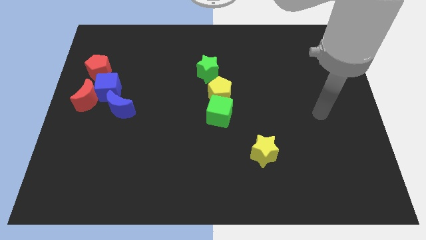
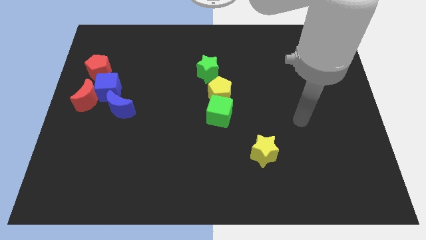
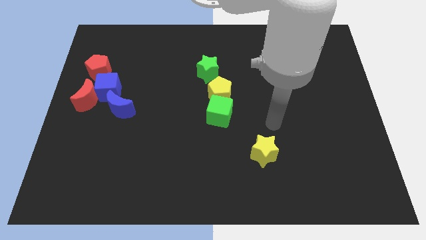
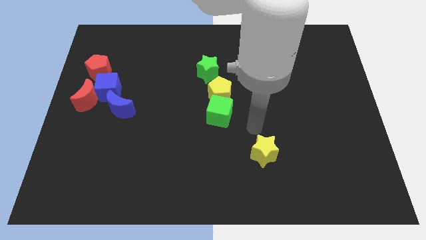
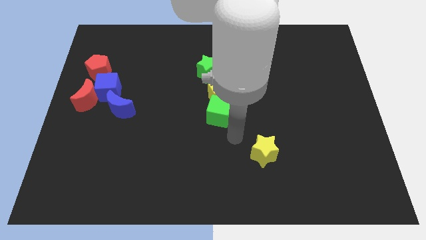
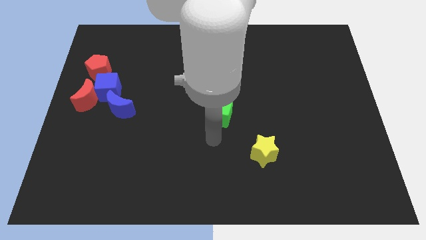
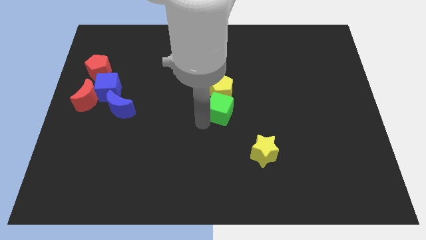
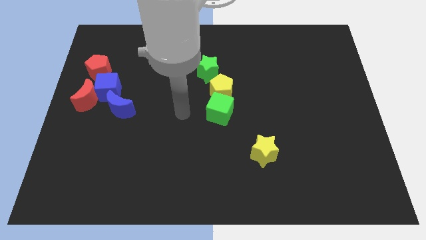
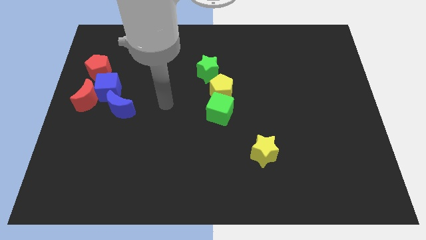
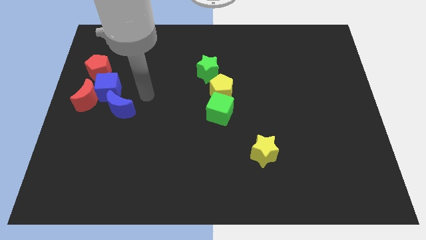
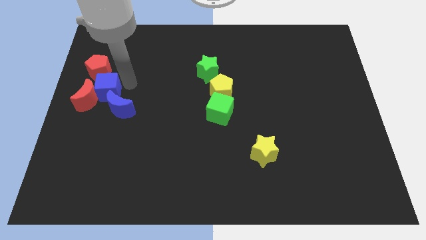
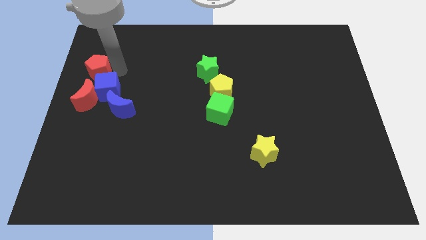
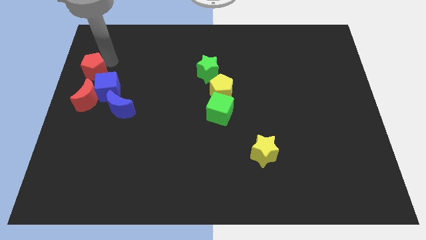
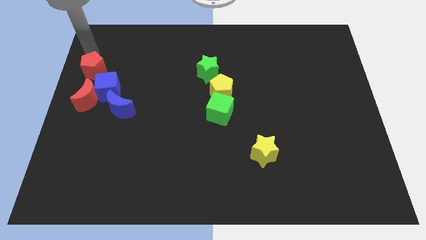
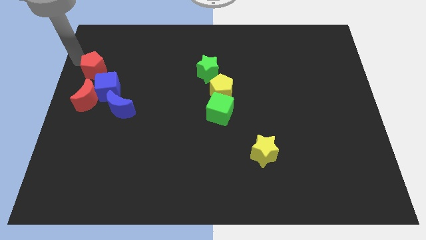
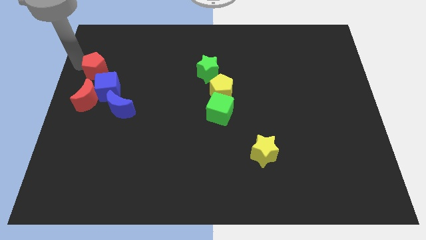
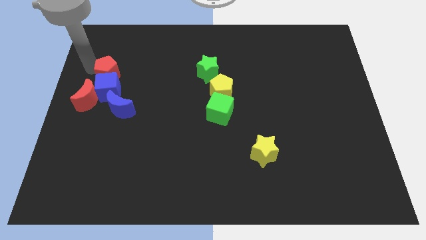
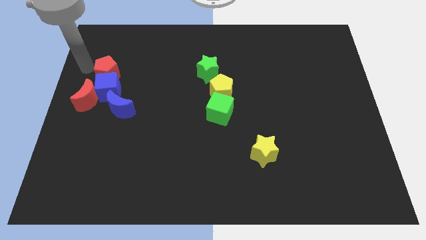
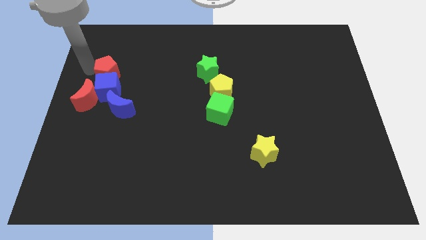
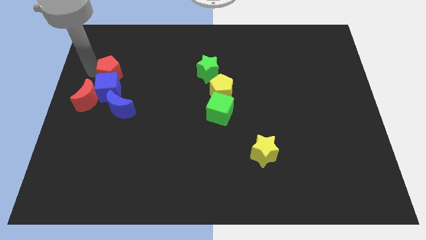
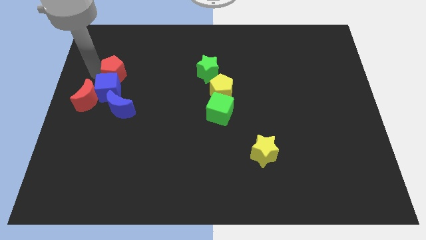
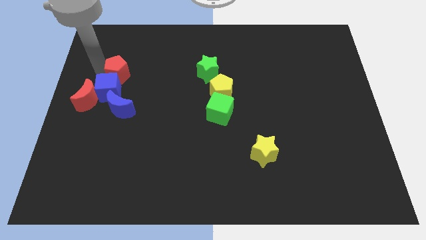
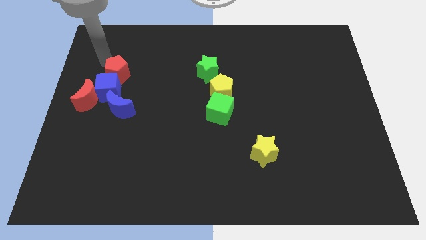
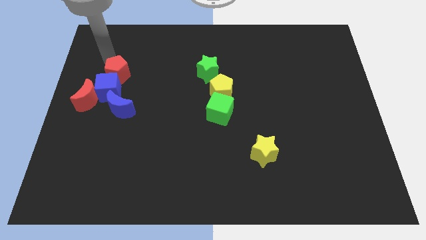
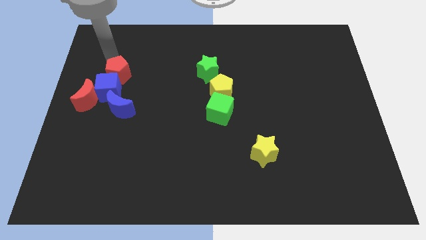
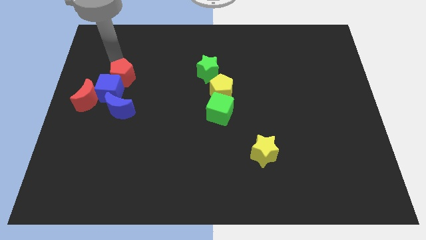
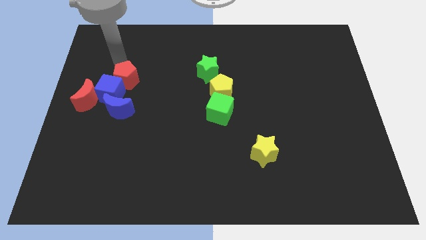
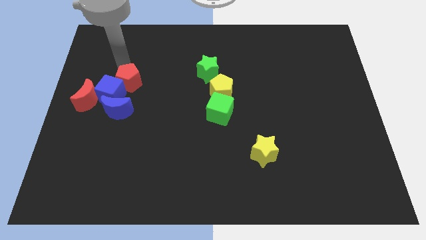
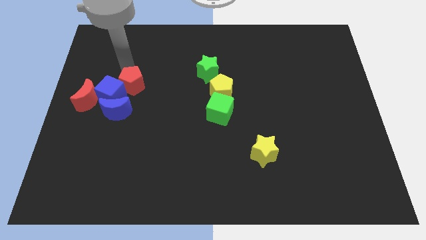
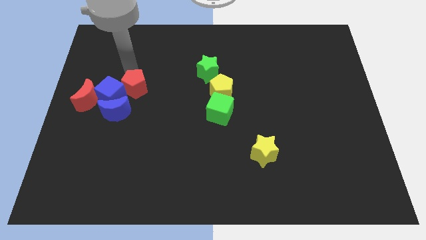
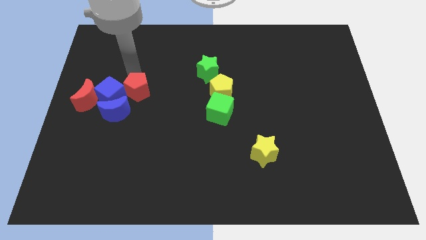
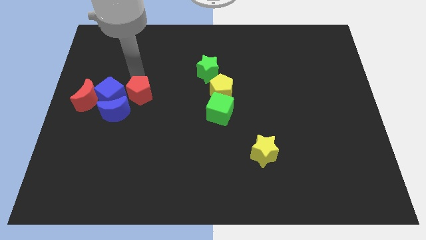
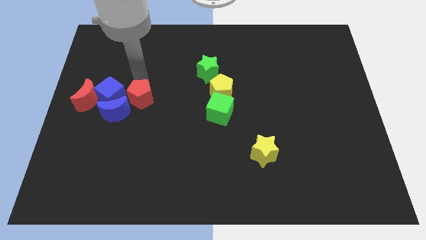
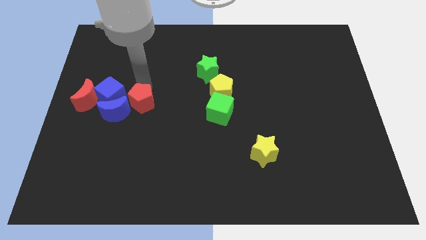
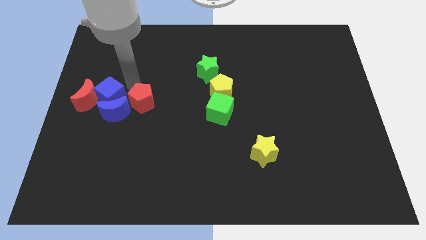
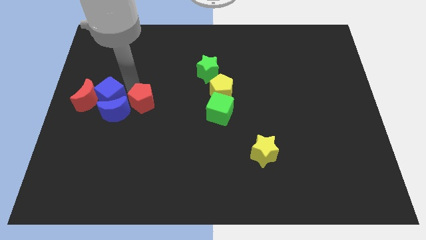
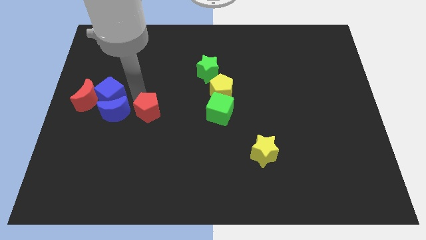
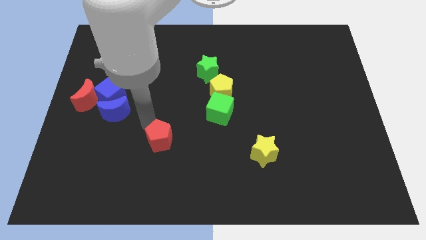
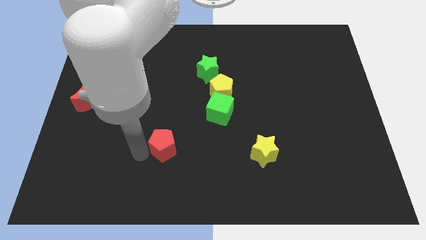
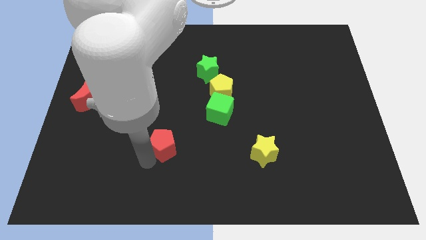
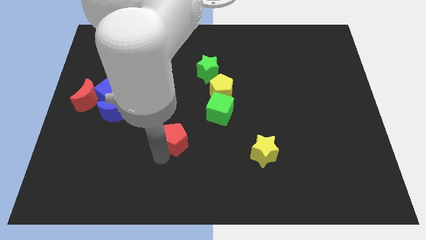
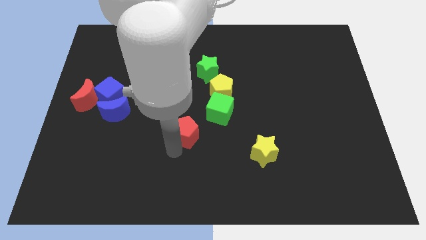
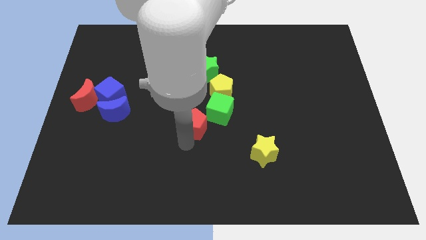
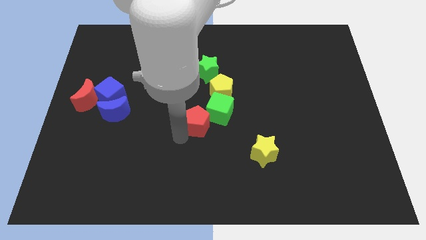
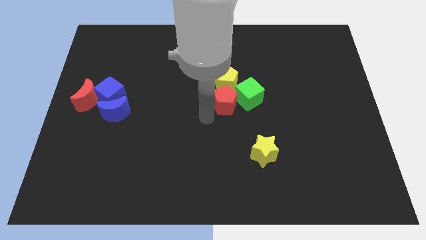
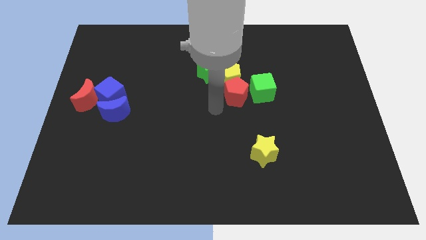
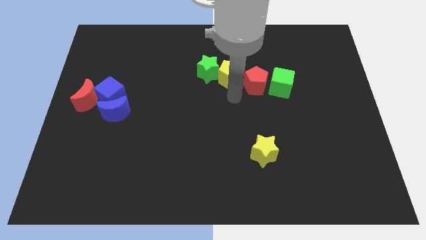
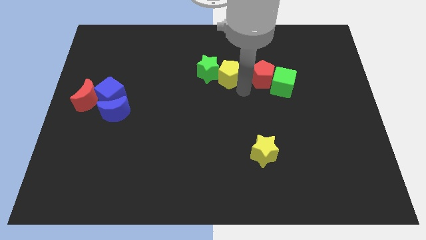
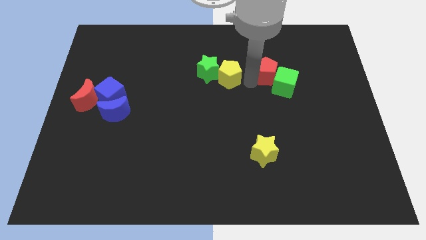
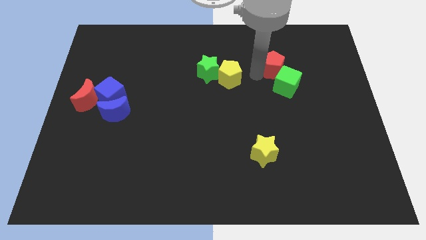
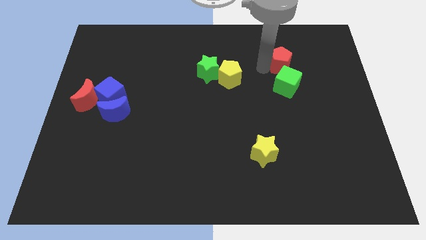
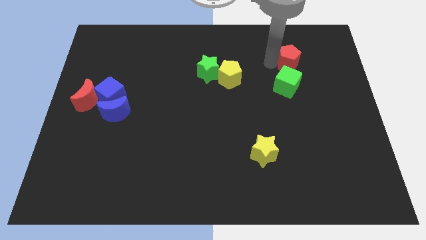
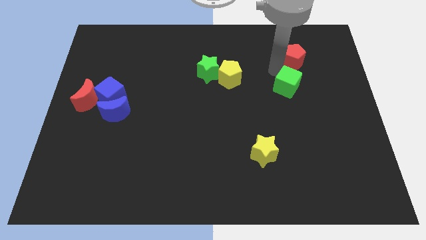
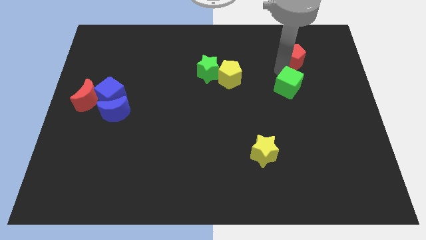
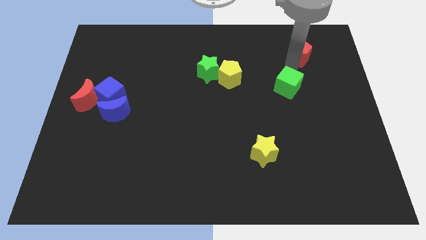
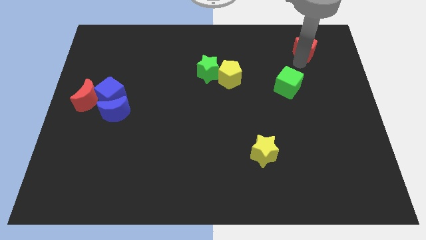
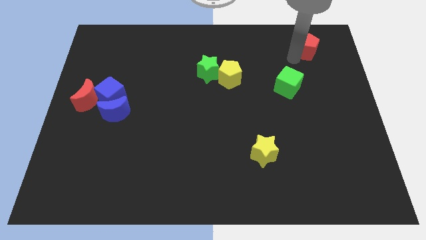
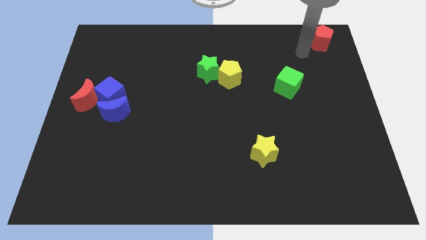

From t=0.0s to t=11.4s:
move the red pentagon to the top right

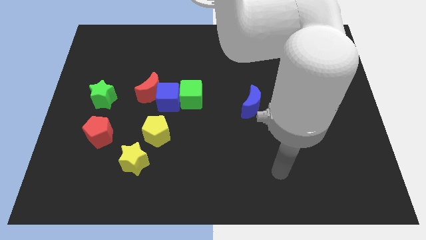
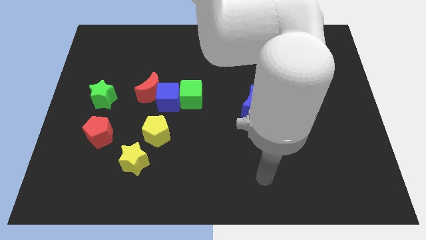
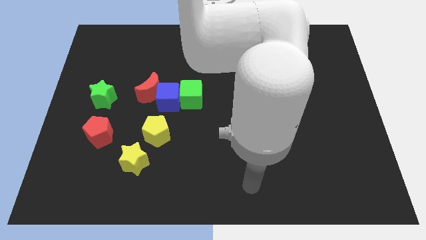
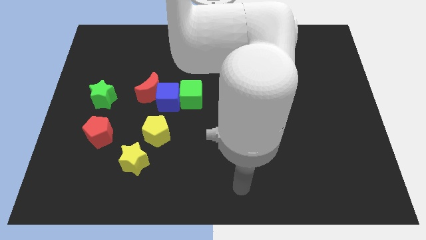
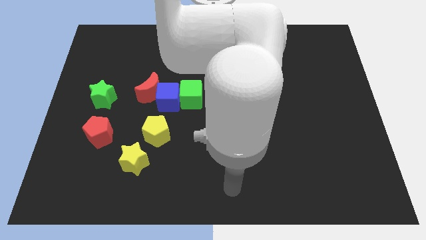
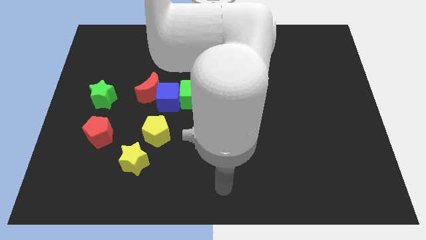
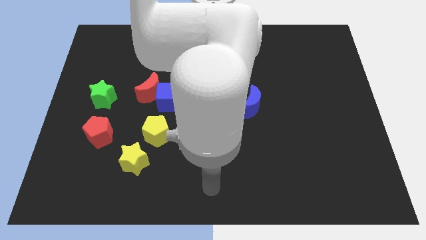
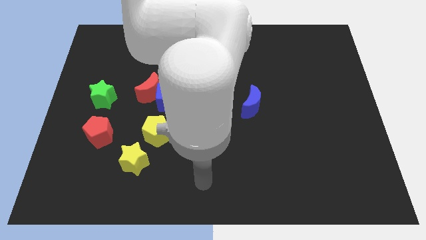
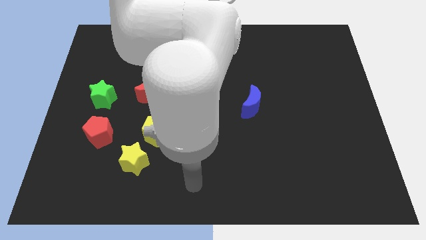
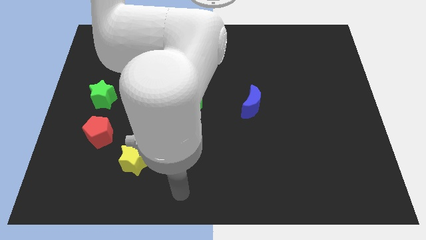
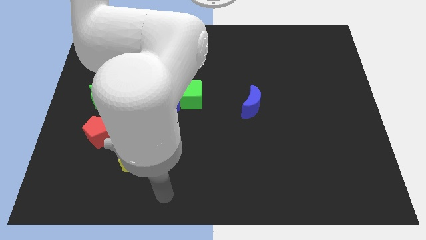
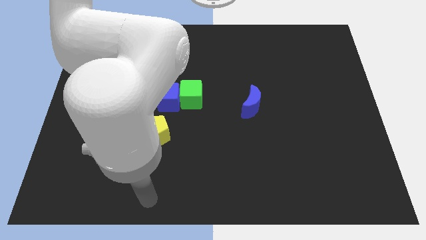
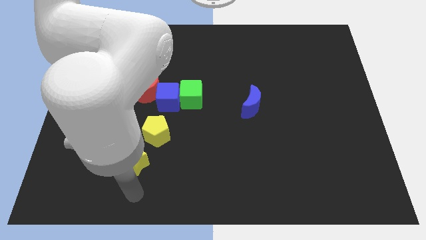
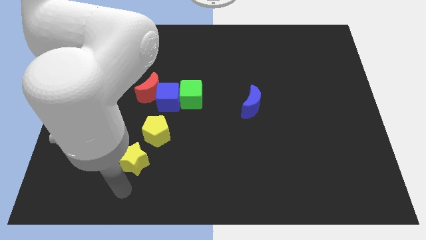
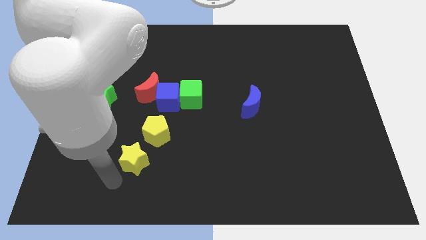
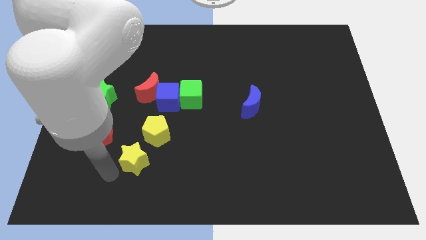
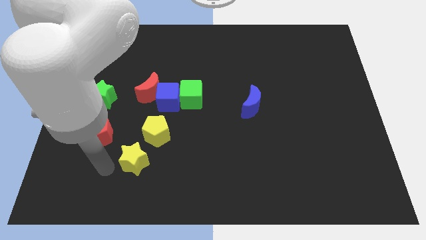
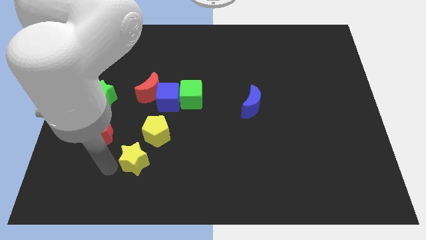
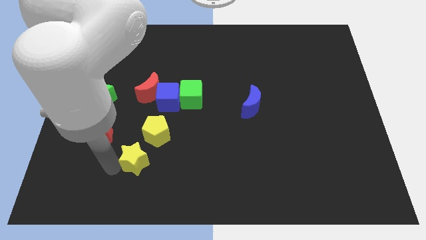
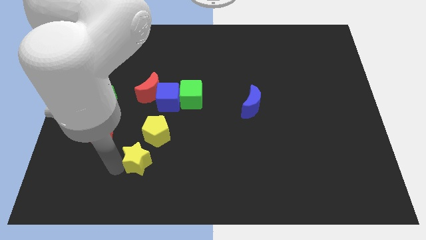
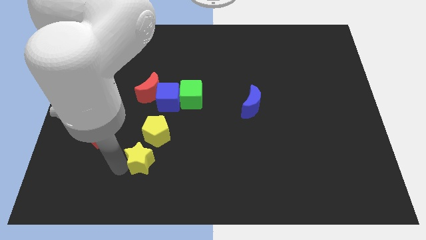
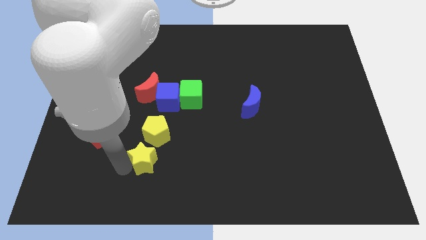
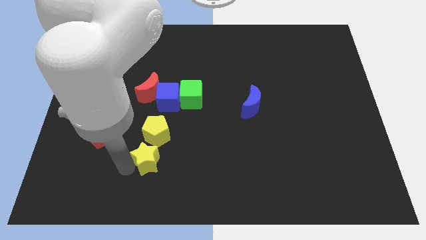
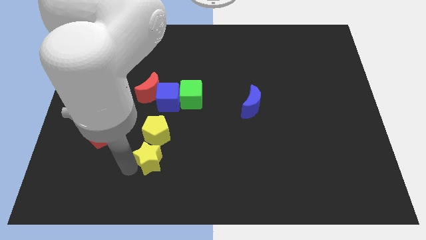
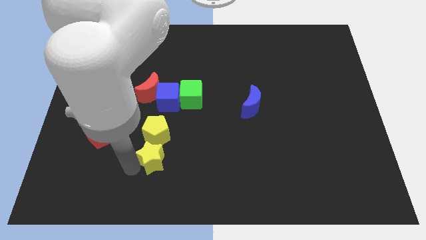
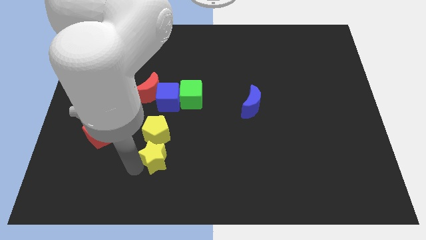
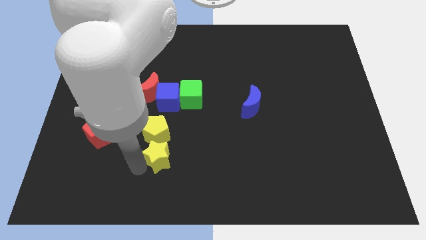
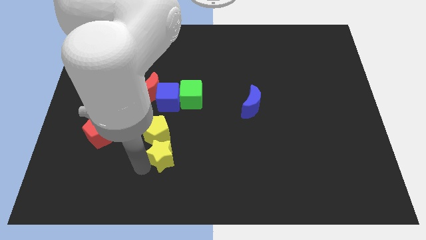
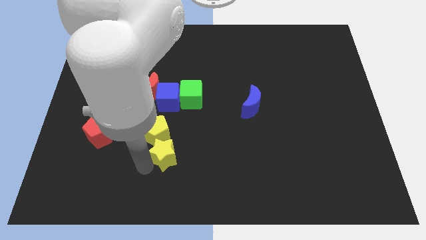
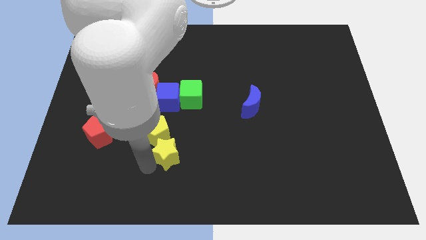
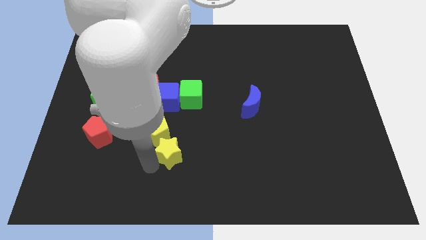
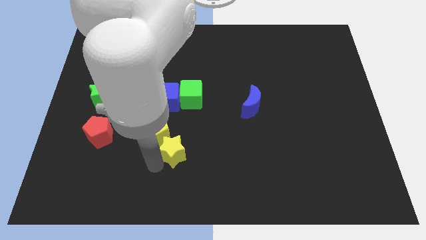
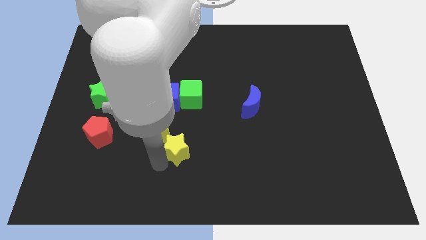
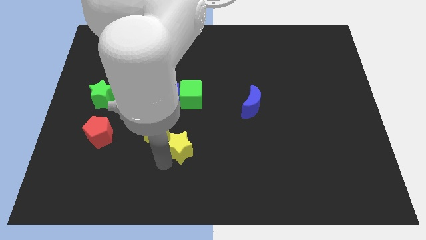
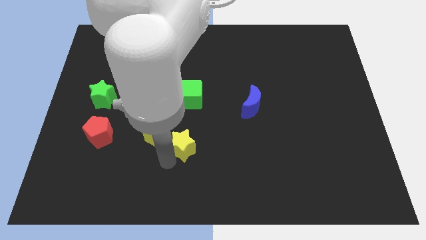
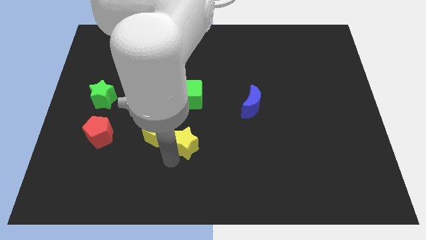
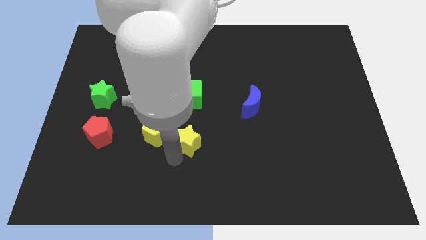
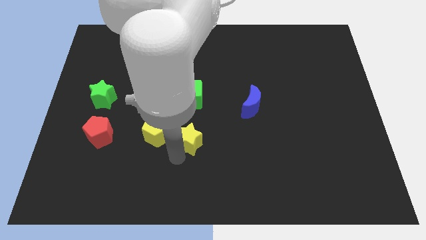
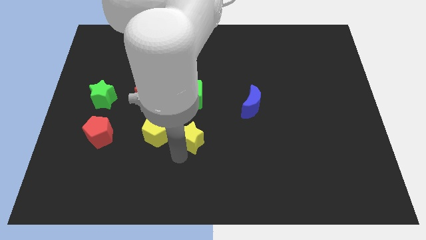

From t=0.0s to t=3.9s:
put the yellow star to the center
